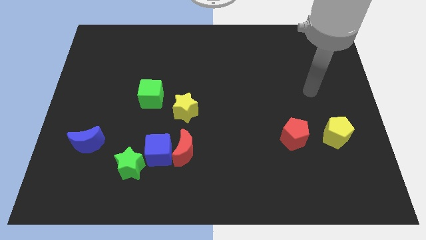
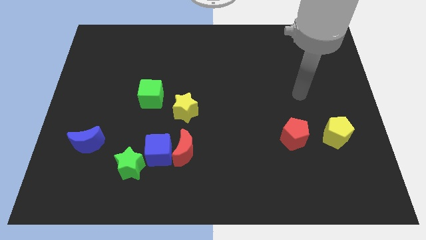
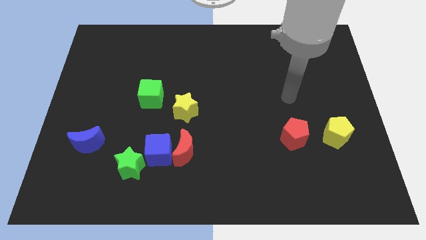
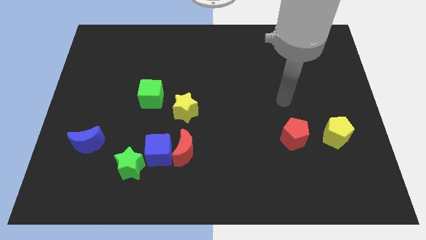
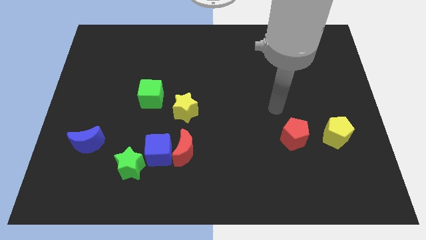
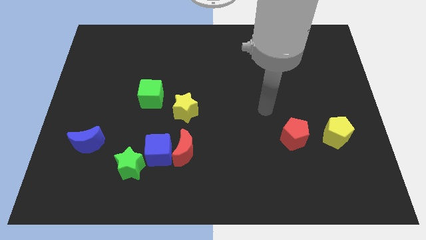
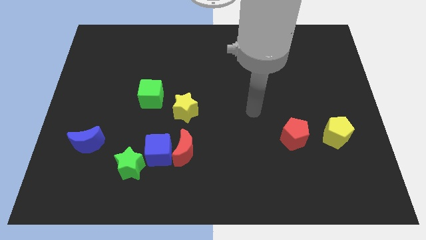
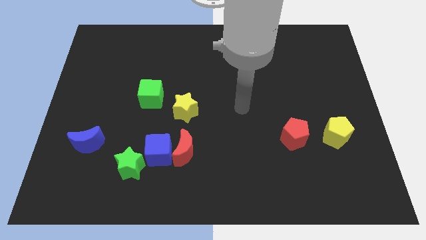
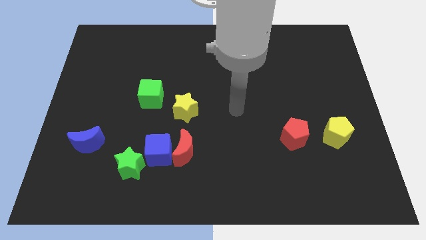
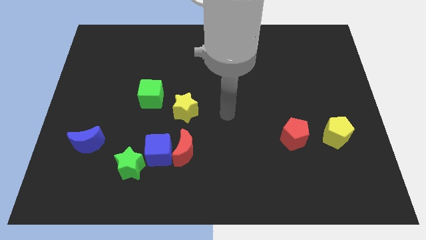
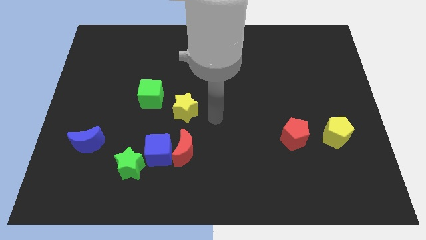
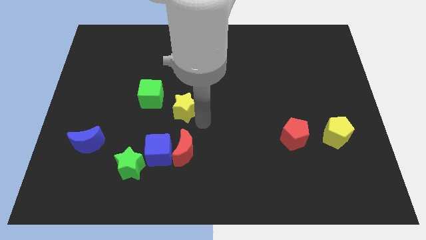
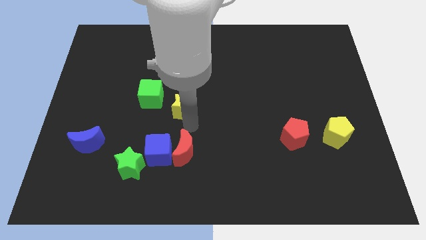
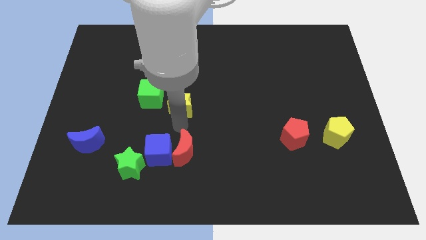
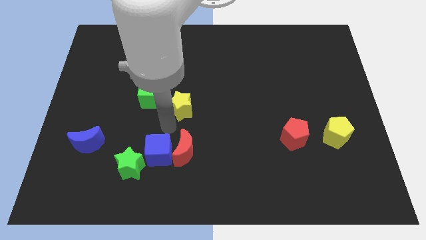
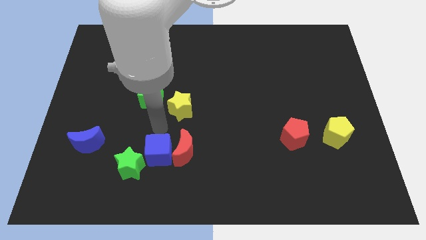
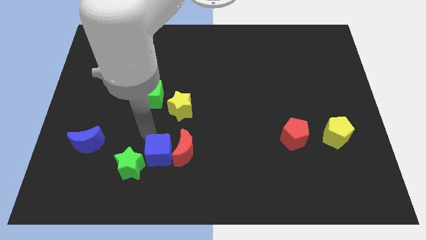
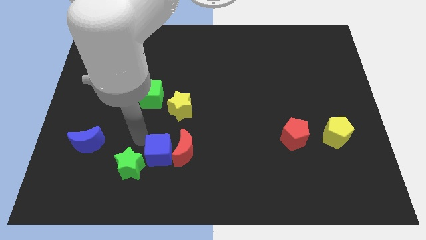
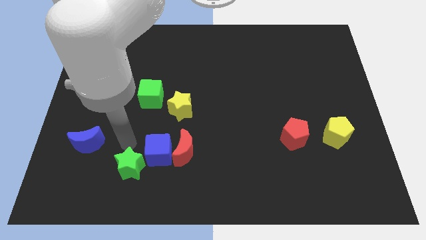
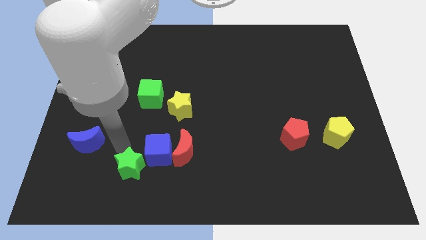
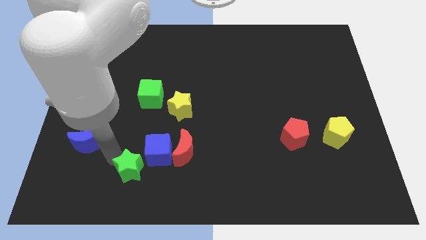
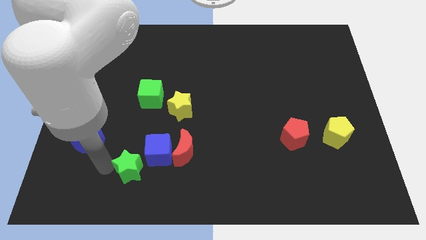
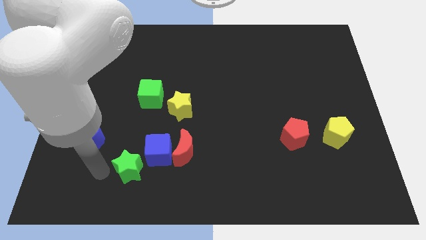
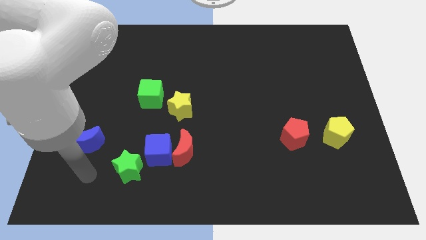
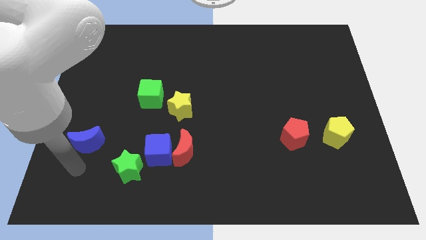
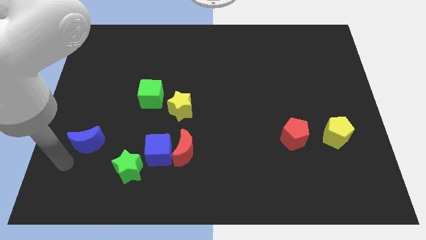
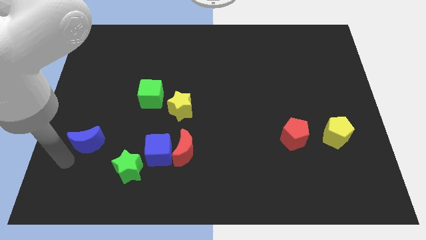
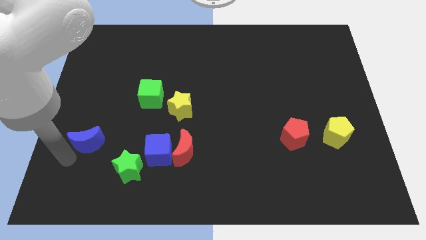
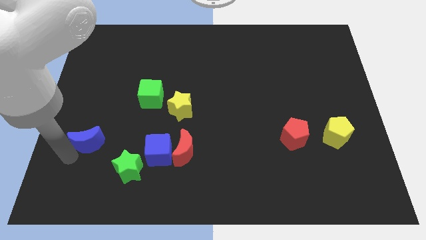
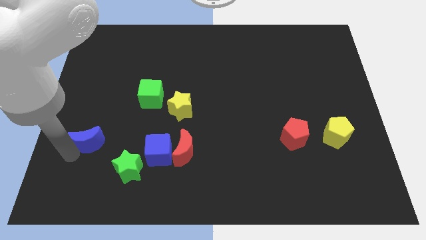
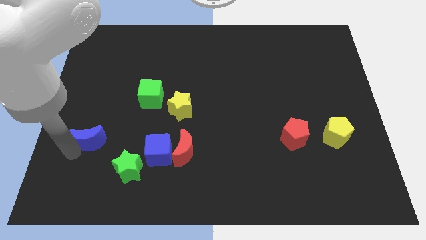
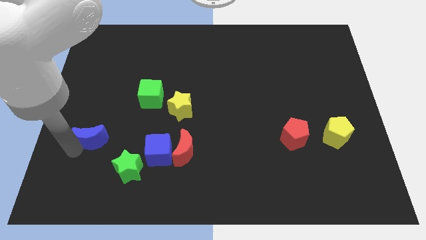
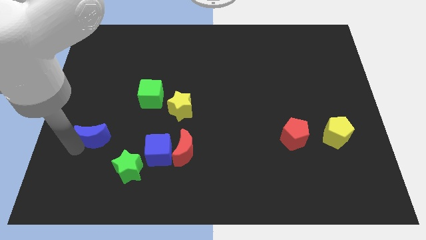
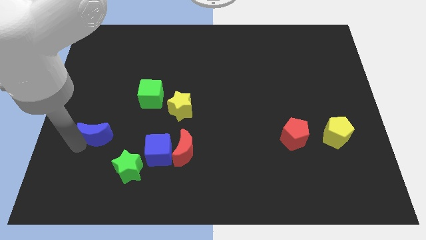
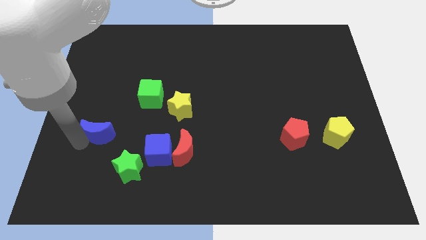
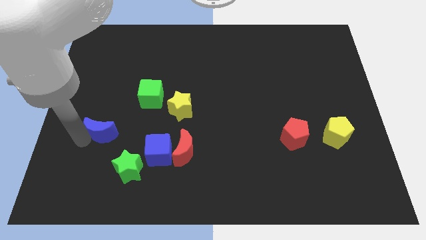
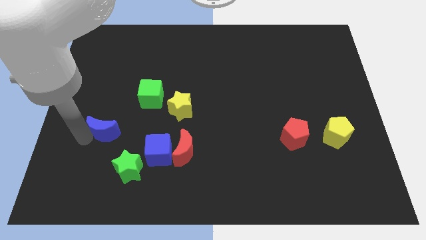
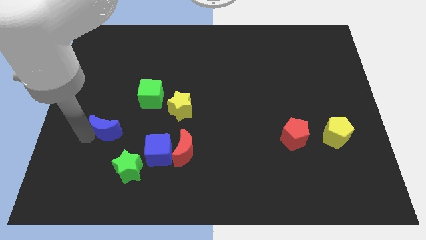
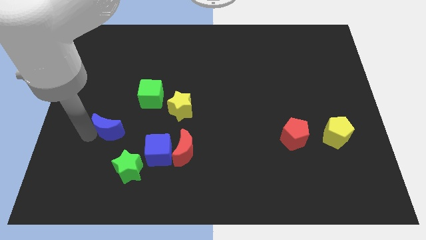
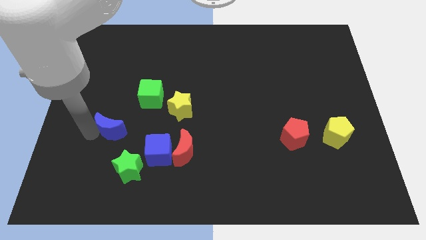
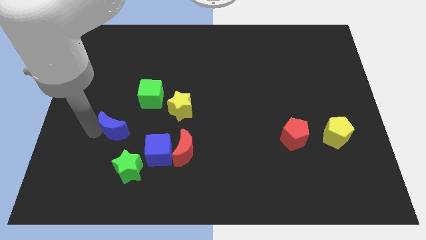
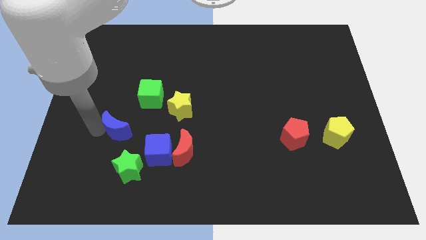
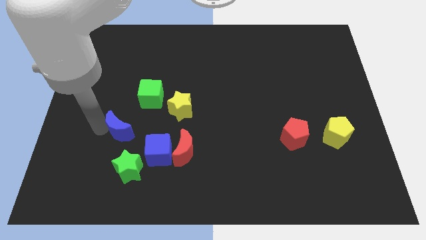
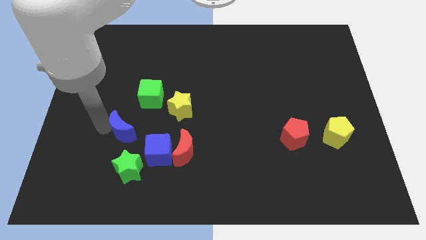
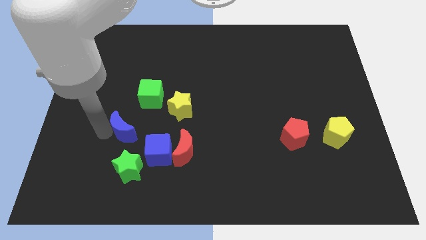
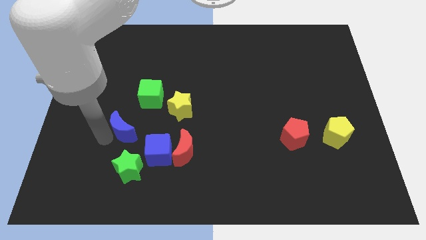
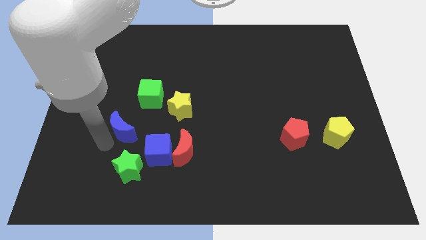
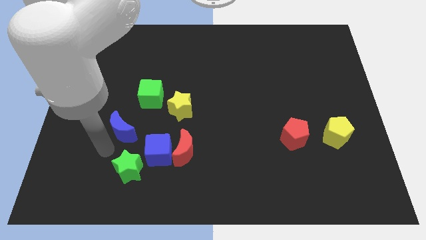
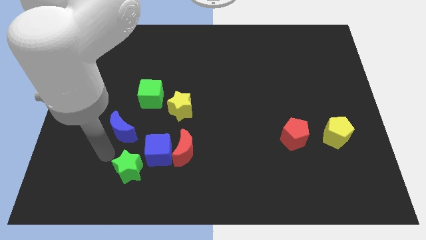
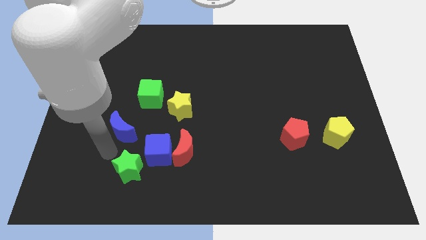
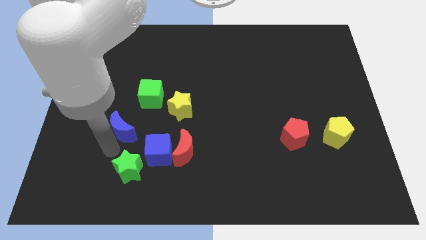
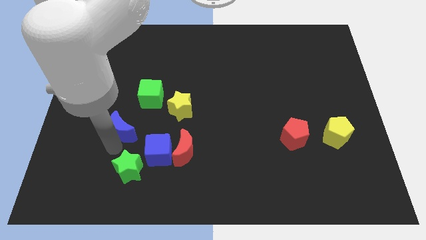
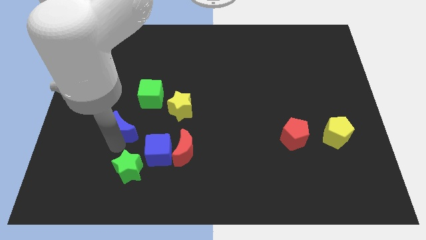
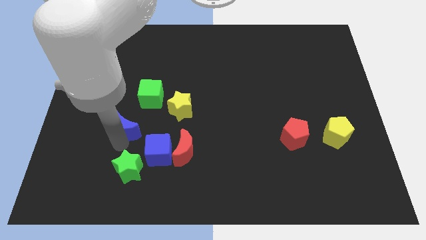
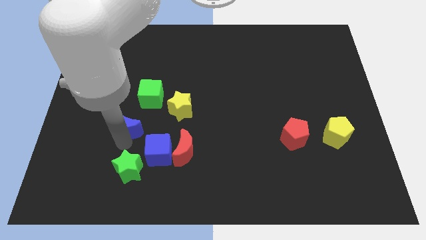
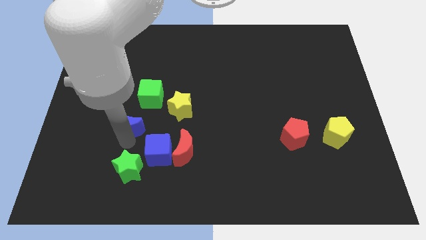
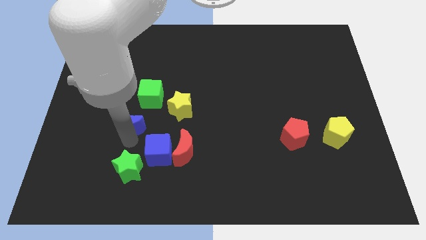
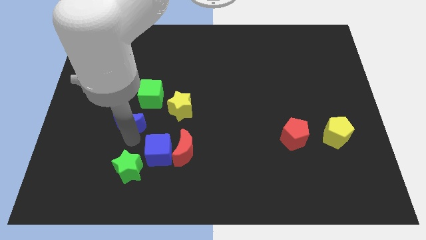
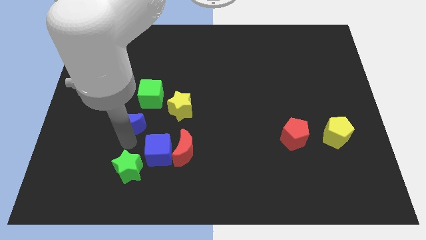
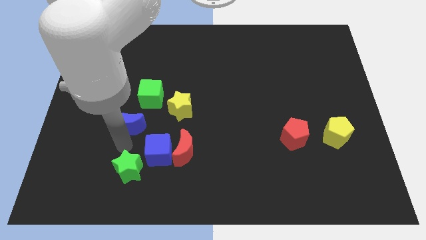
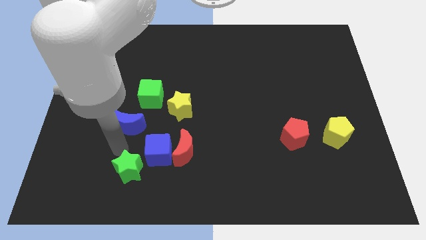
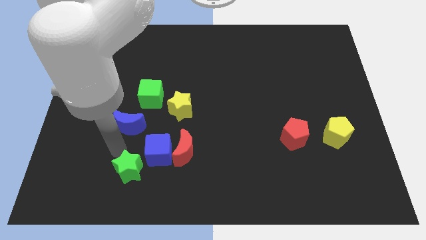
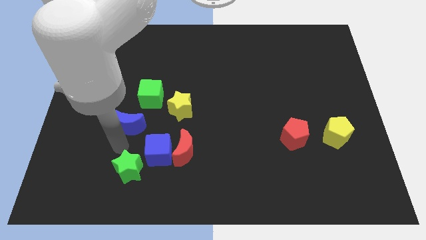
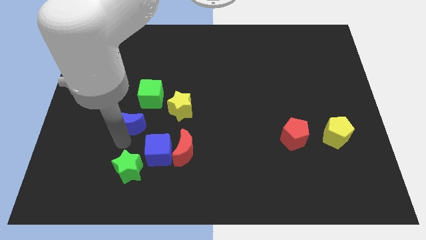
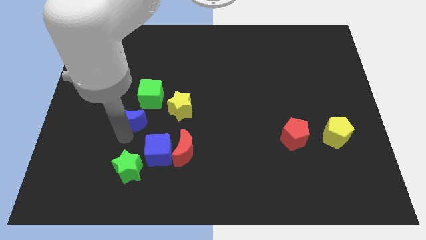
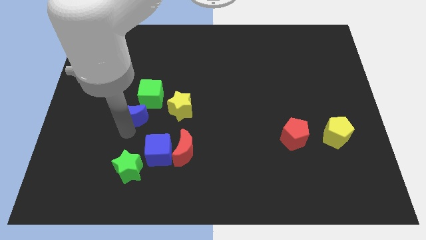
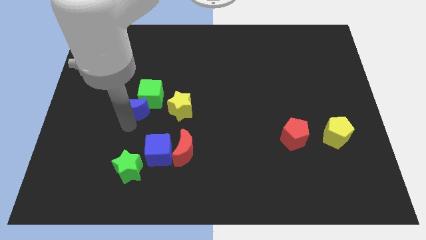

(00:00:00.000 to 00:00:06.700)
push the blue moon close to the green cube
